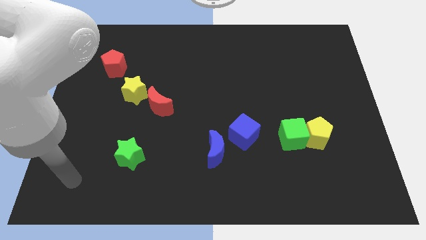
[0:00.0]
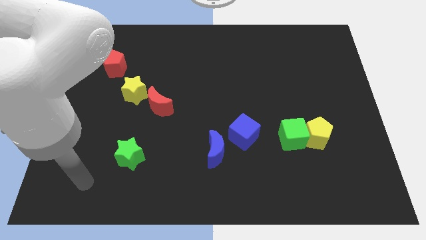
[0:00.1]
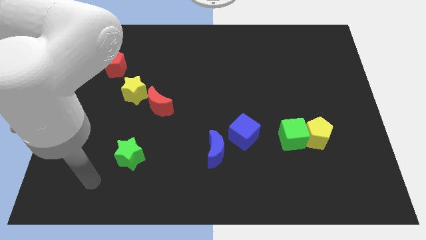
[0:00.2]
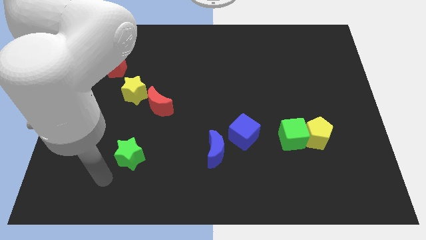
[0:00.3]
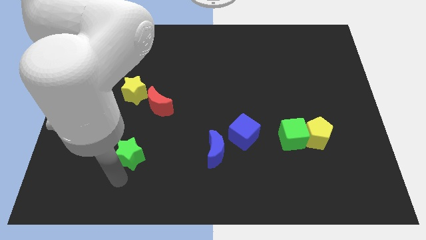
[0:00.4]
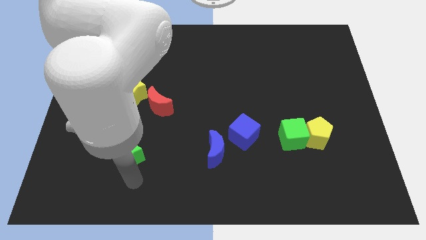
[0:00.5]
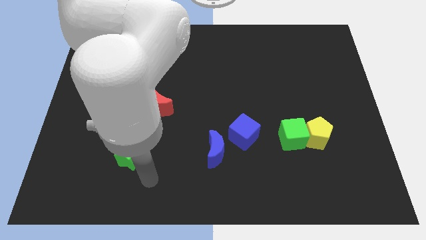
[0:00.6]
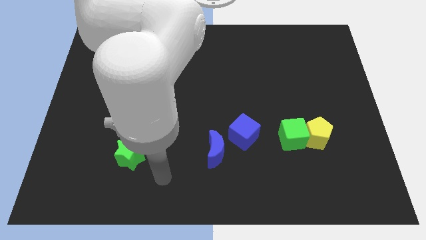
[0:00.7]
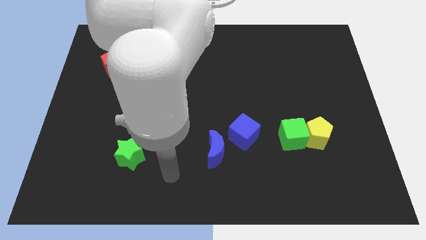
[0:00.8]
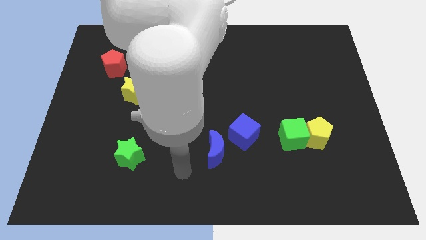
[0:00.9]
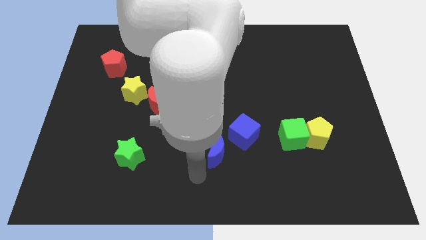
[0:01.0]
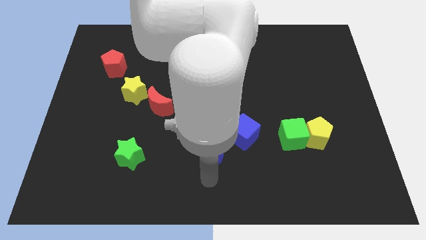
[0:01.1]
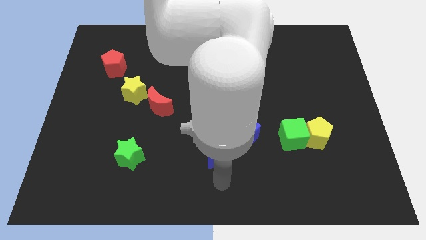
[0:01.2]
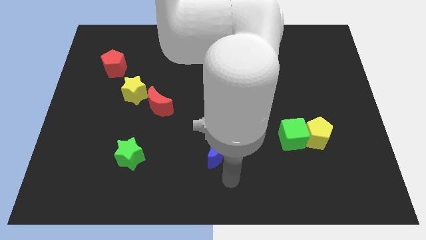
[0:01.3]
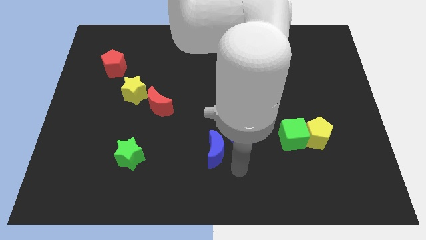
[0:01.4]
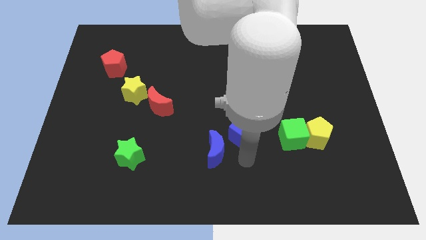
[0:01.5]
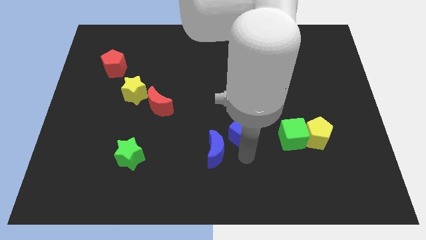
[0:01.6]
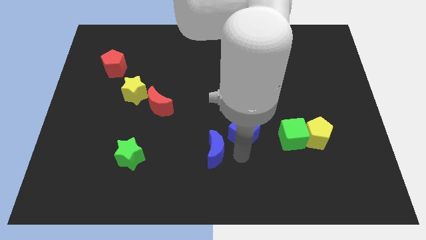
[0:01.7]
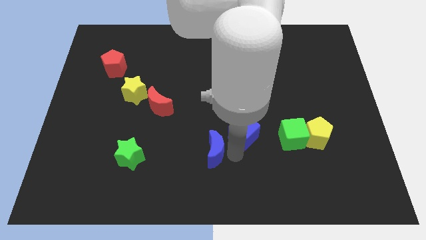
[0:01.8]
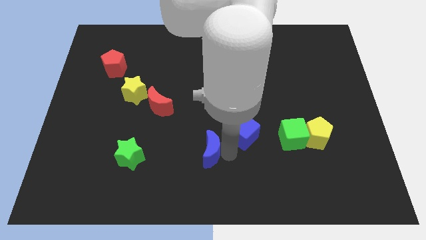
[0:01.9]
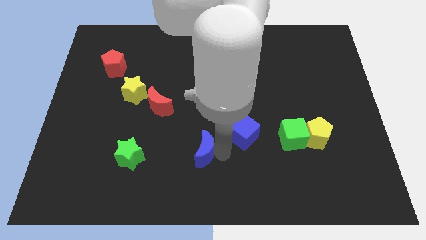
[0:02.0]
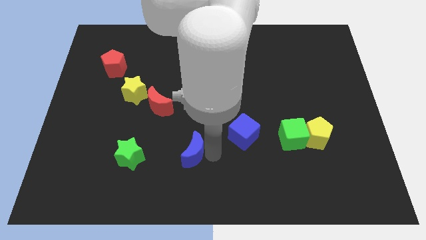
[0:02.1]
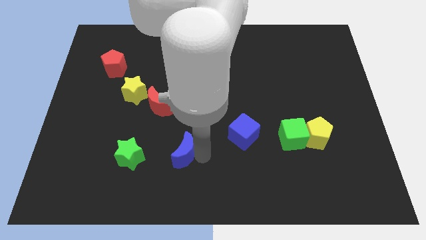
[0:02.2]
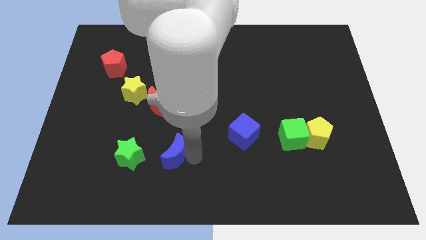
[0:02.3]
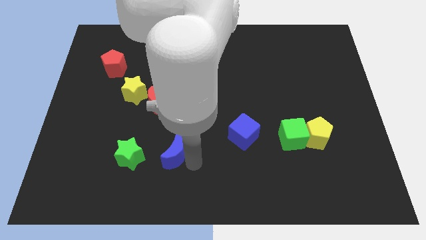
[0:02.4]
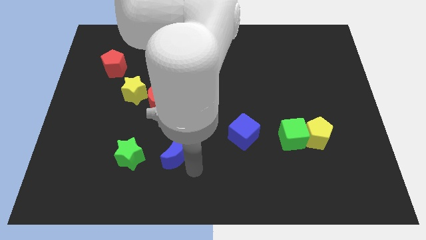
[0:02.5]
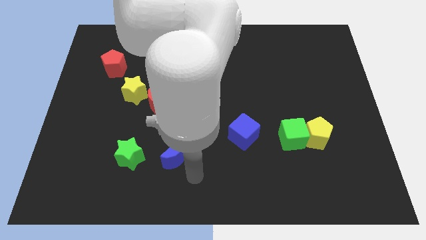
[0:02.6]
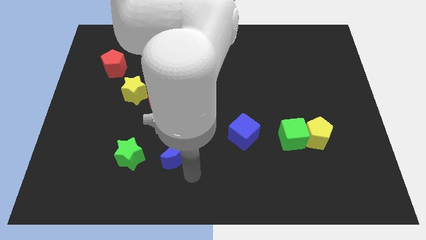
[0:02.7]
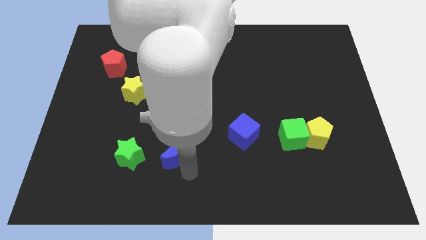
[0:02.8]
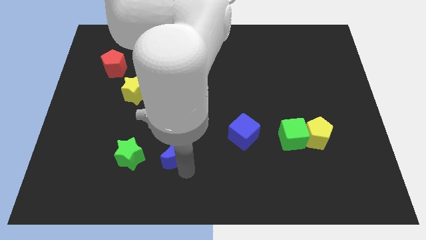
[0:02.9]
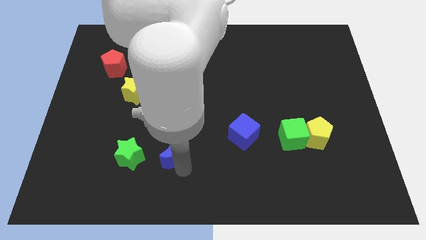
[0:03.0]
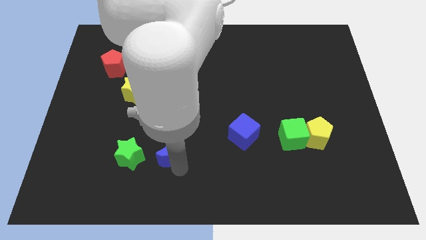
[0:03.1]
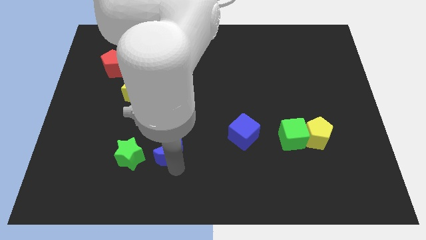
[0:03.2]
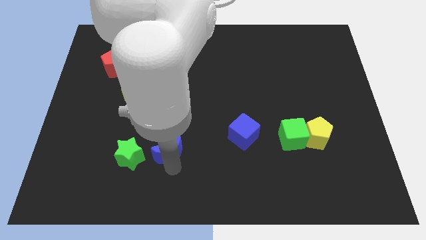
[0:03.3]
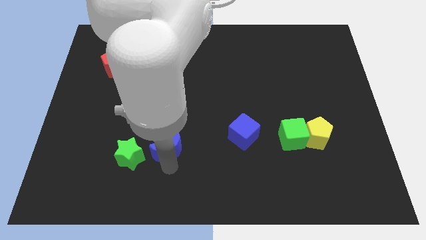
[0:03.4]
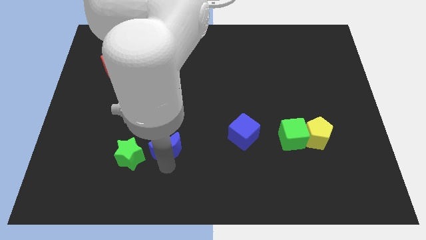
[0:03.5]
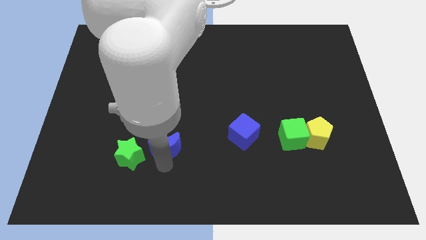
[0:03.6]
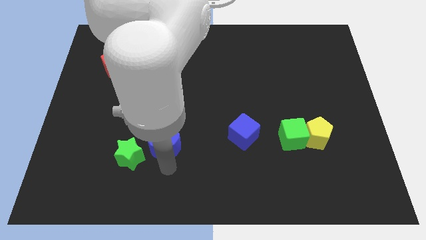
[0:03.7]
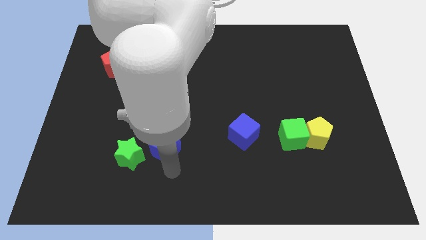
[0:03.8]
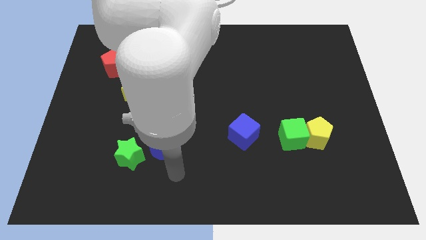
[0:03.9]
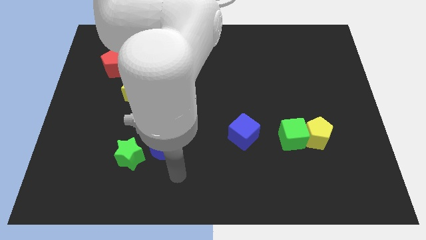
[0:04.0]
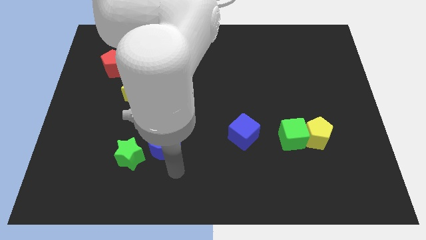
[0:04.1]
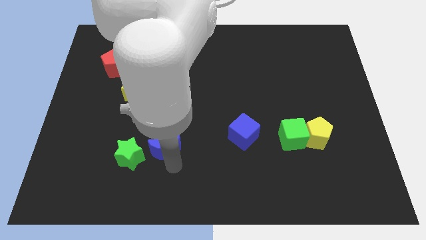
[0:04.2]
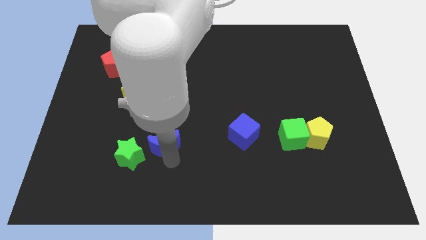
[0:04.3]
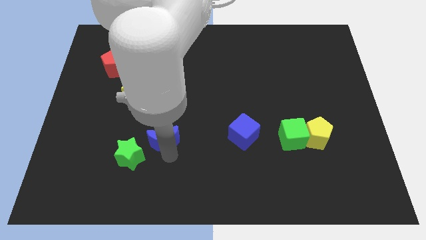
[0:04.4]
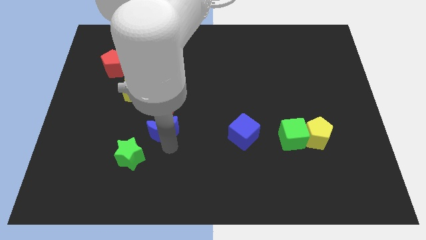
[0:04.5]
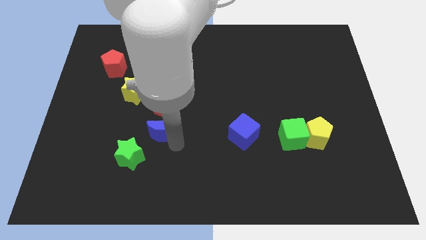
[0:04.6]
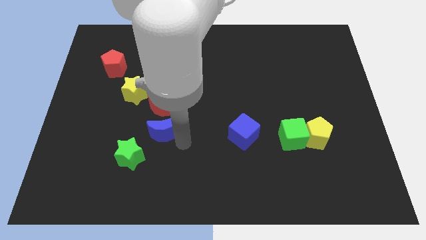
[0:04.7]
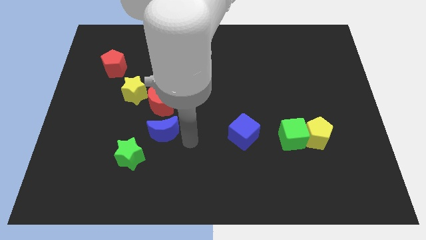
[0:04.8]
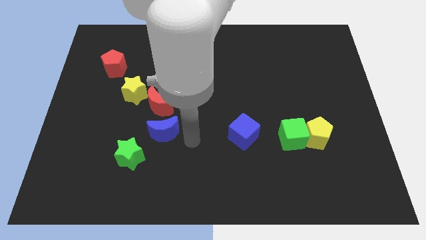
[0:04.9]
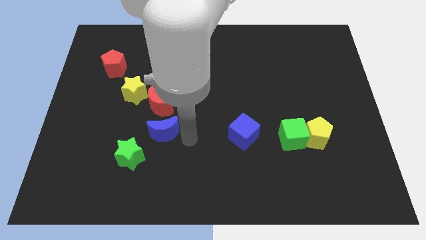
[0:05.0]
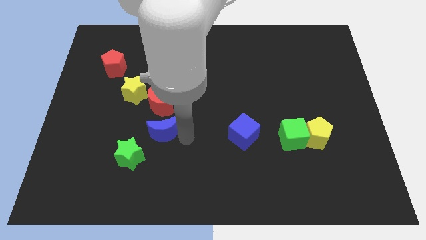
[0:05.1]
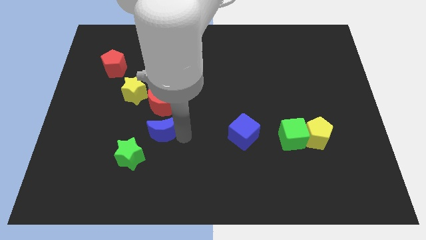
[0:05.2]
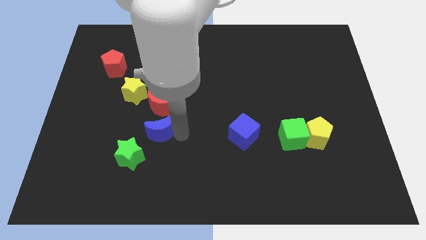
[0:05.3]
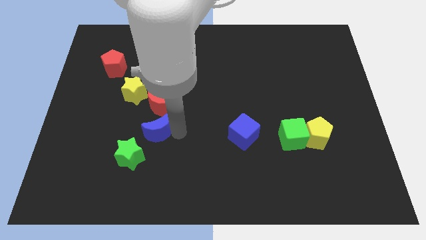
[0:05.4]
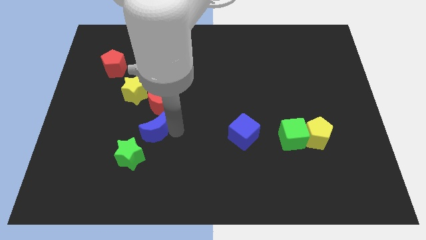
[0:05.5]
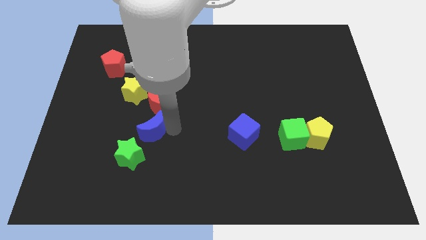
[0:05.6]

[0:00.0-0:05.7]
slide the blue moon to the bottom left of the red moon

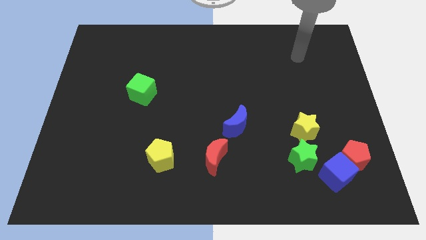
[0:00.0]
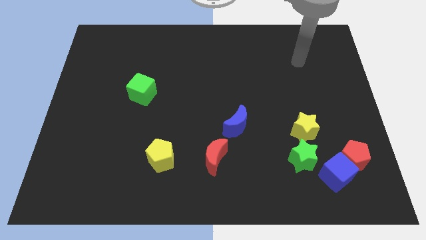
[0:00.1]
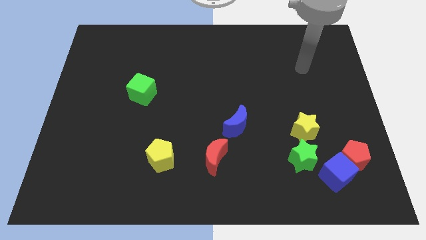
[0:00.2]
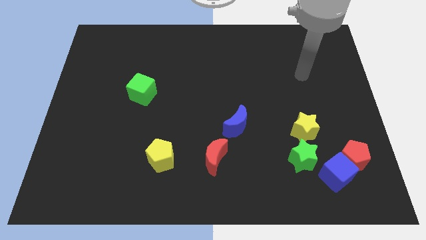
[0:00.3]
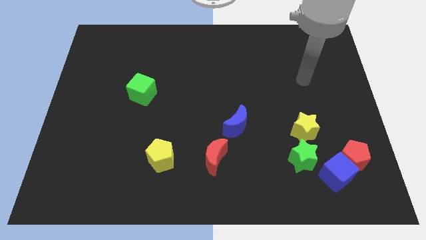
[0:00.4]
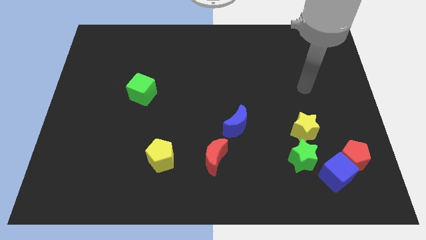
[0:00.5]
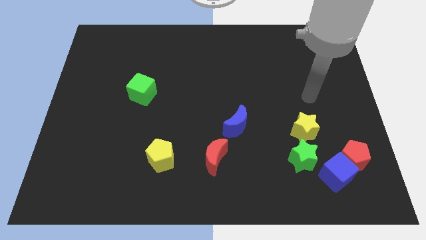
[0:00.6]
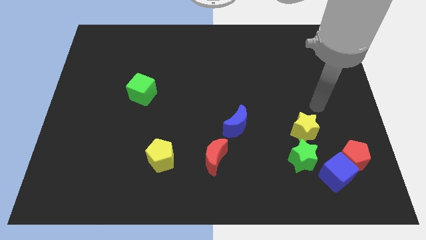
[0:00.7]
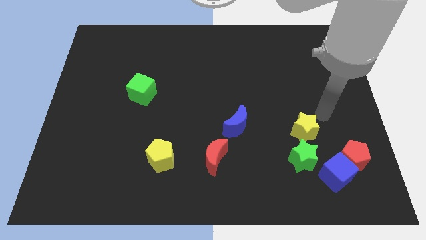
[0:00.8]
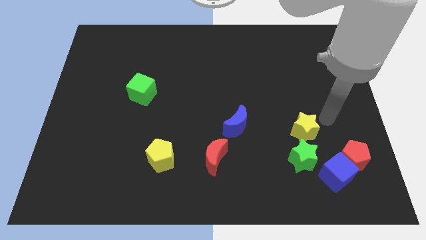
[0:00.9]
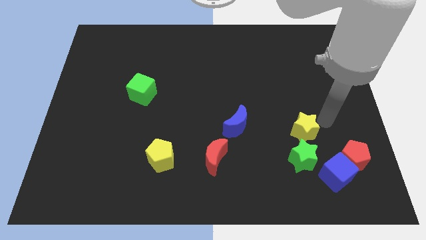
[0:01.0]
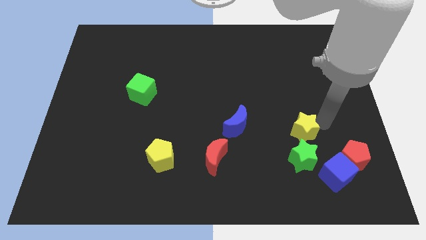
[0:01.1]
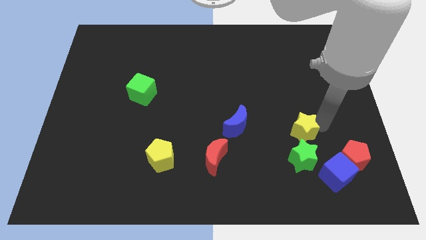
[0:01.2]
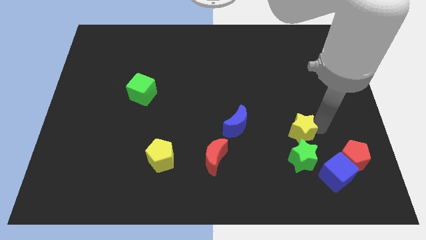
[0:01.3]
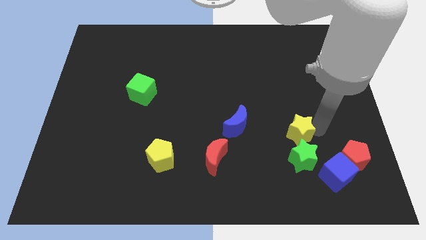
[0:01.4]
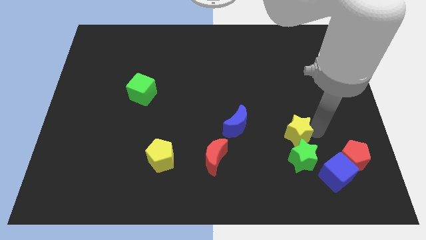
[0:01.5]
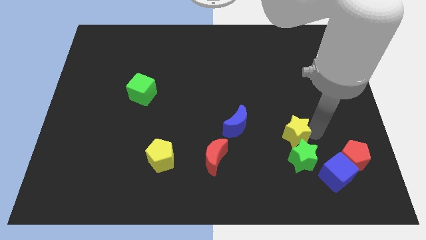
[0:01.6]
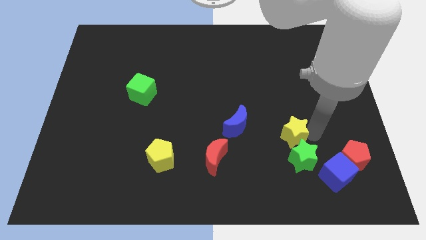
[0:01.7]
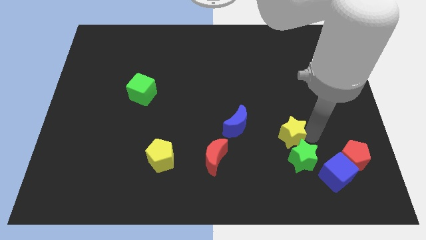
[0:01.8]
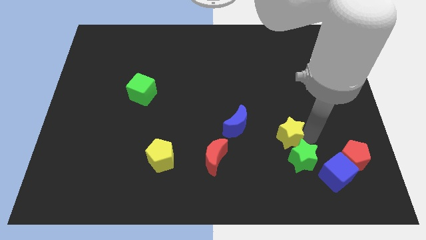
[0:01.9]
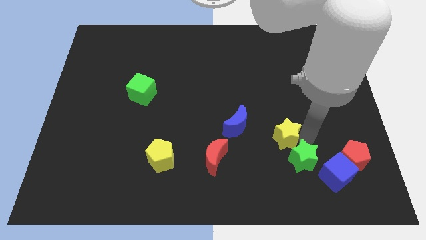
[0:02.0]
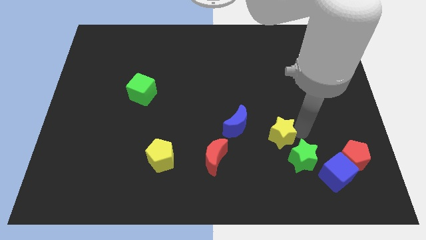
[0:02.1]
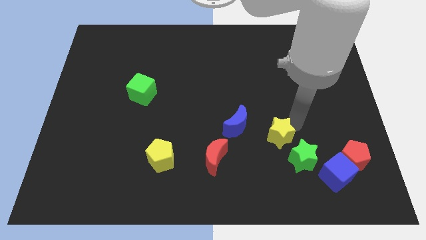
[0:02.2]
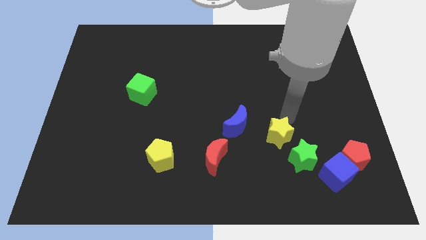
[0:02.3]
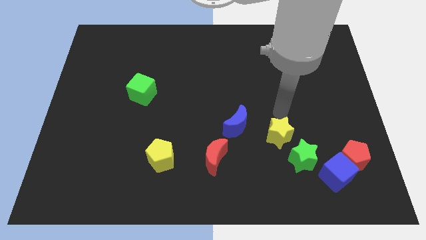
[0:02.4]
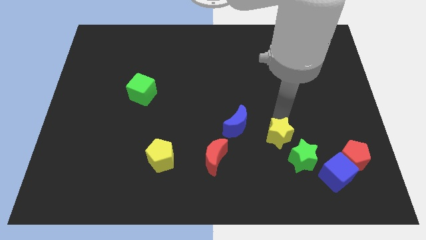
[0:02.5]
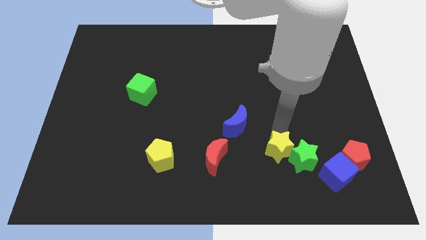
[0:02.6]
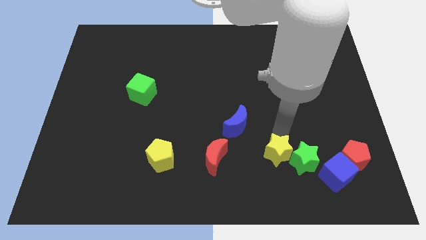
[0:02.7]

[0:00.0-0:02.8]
push the yellow star to the bottom left side of the green star
